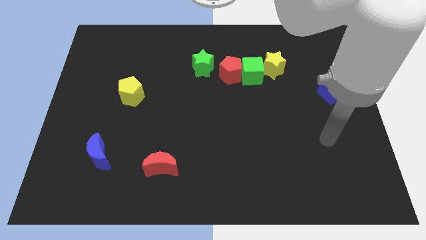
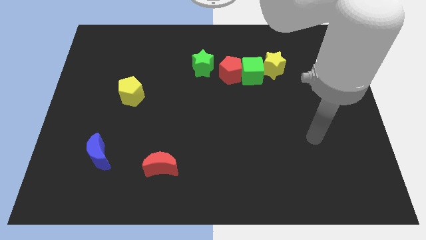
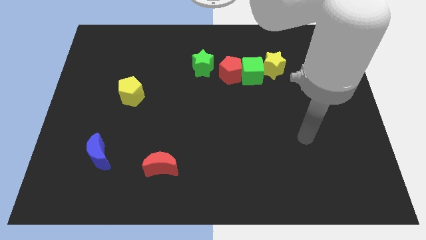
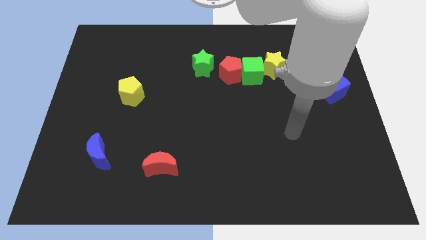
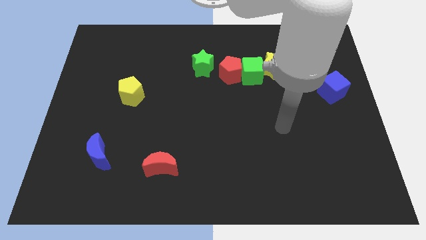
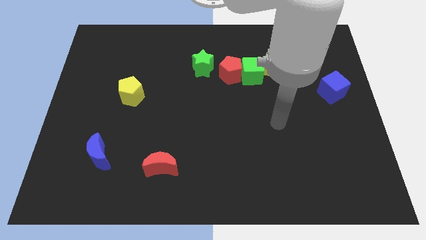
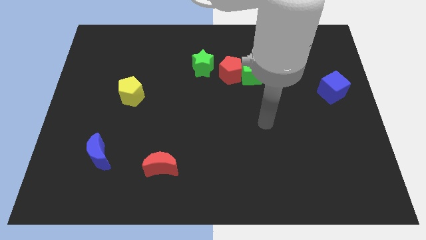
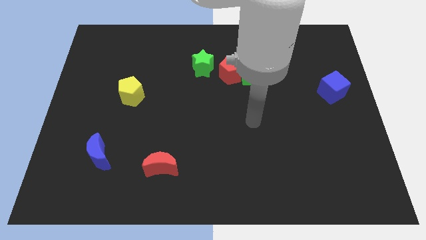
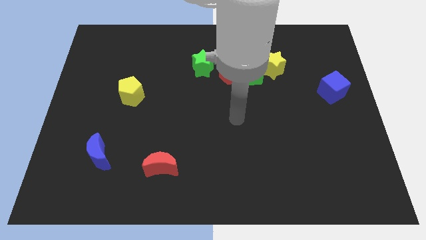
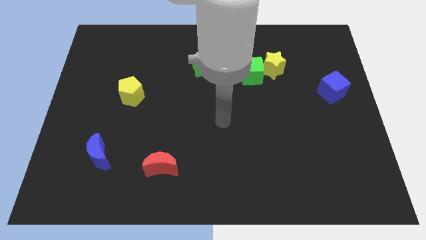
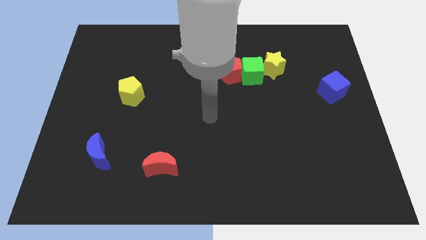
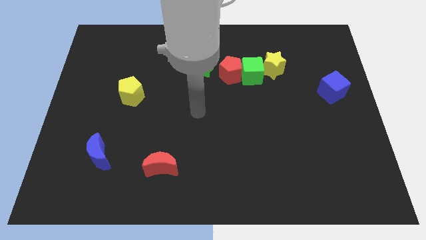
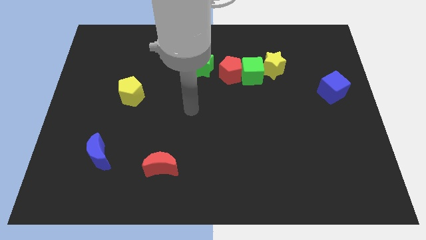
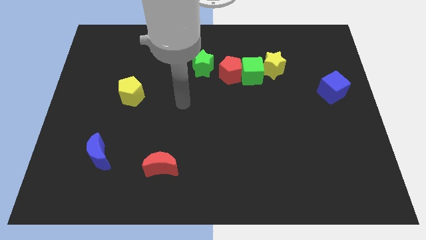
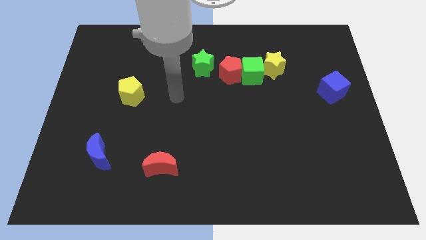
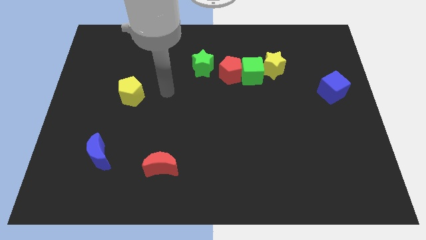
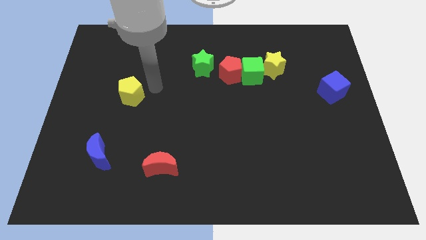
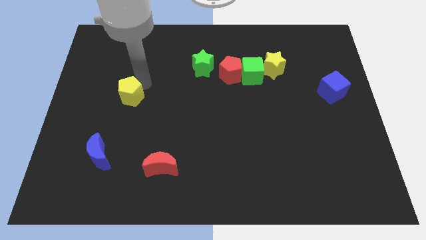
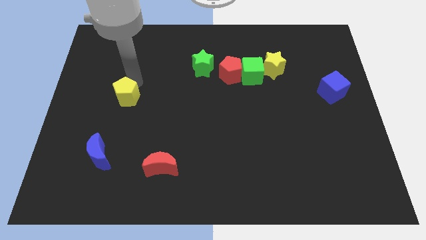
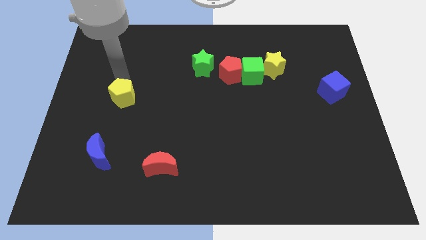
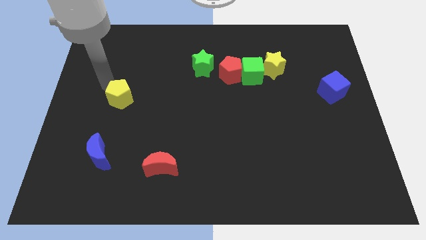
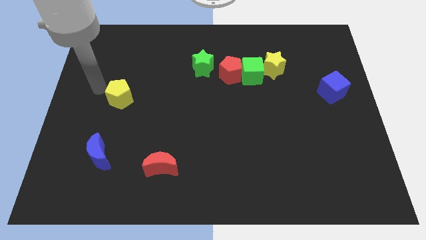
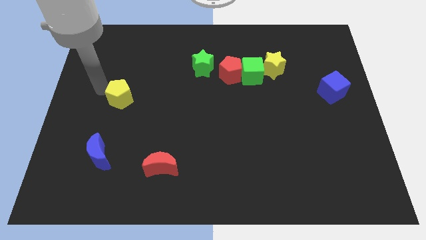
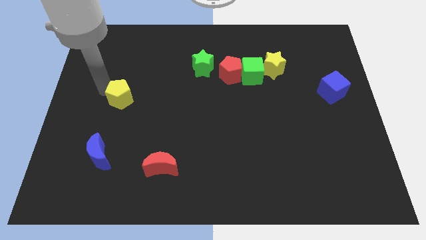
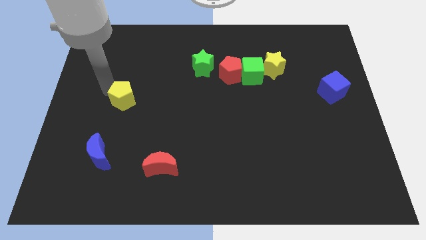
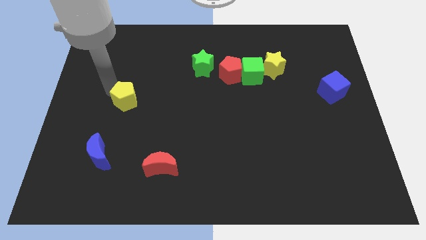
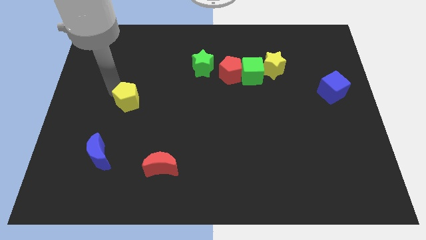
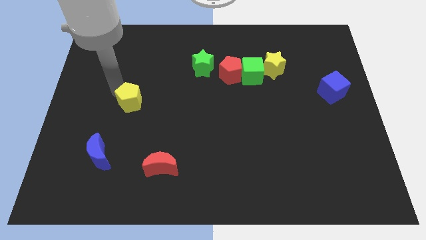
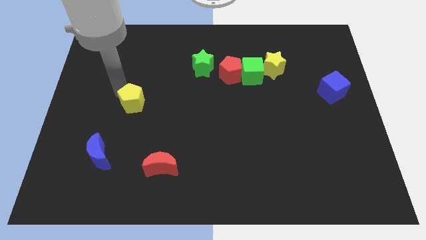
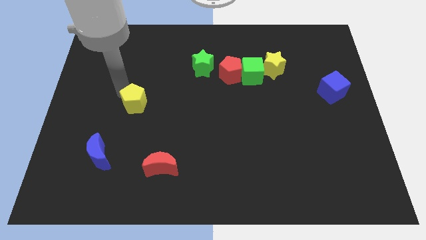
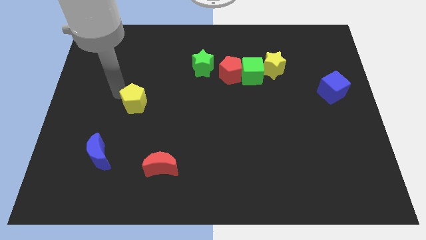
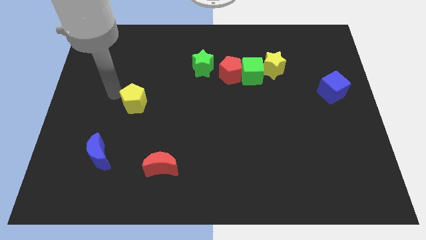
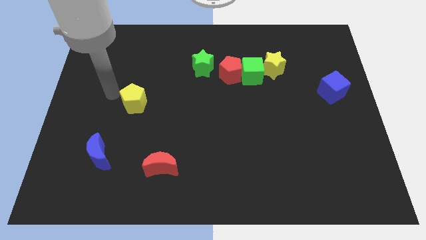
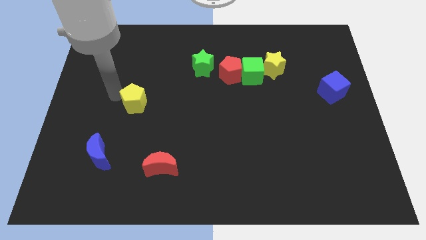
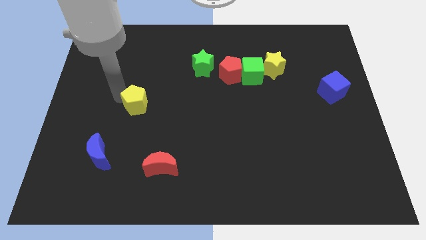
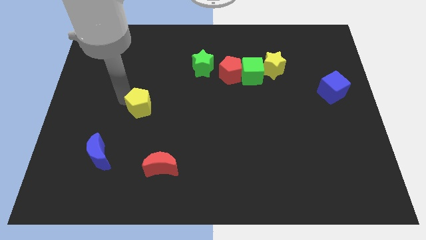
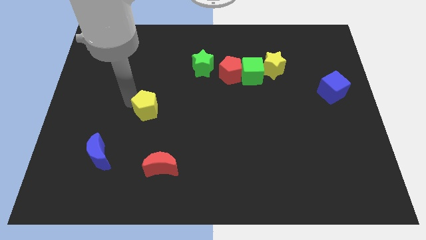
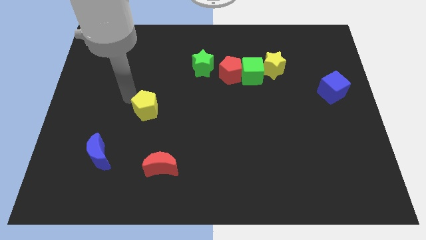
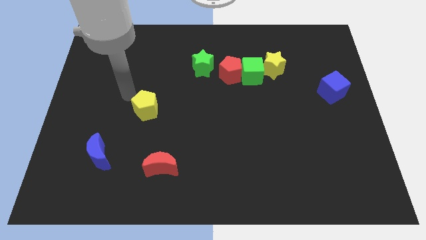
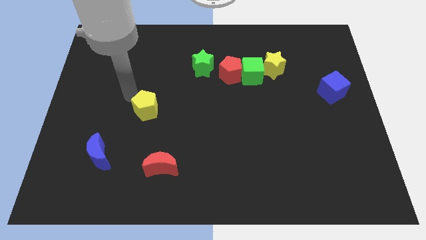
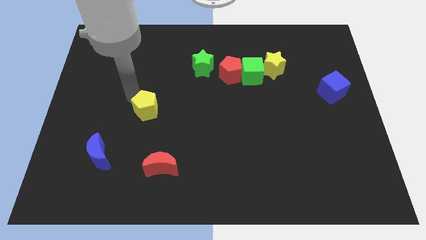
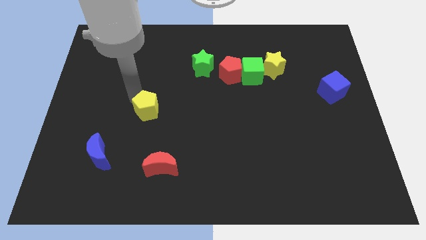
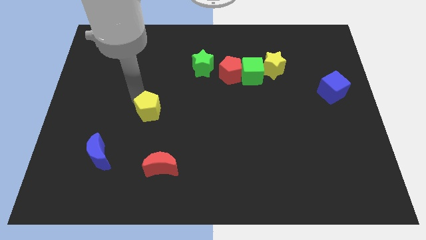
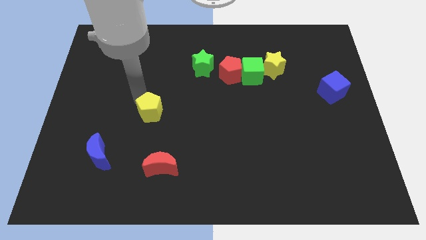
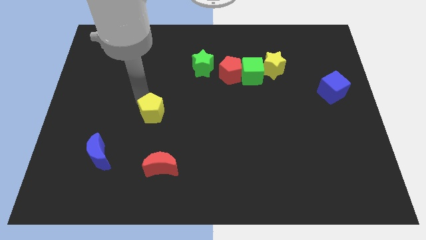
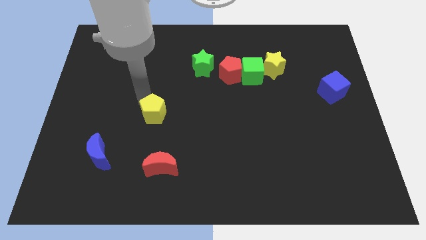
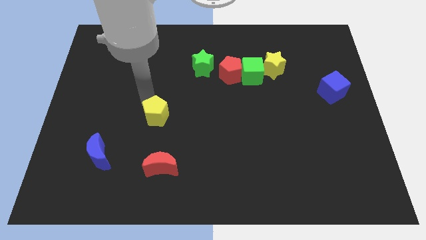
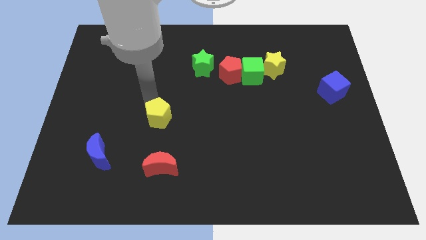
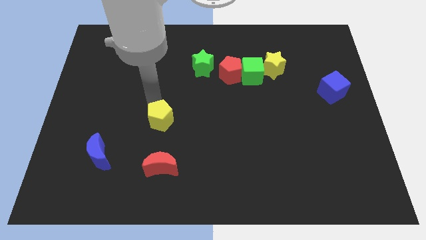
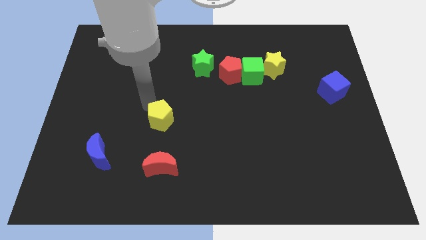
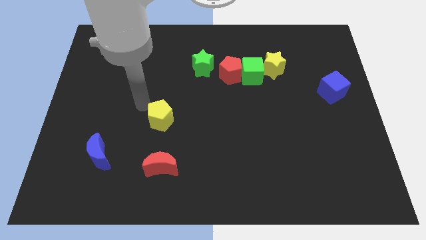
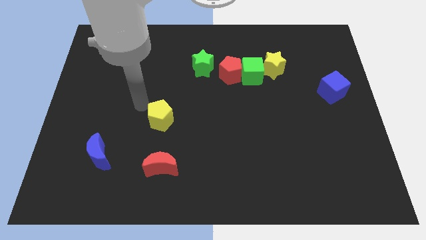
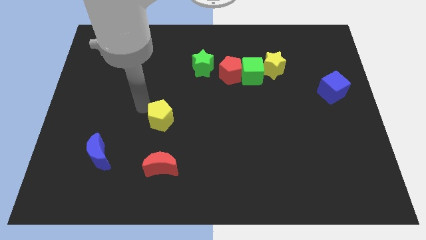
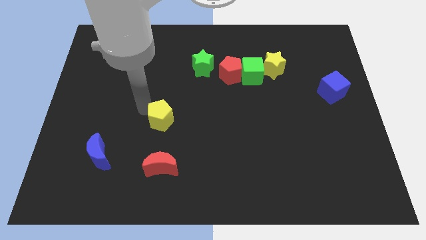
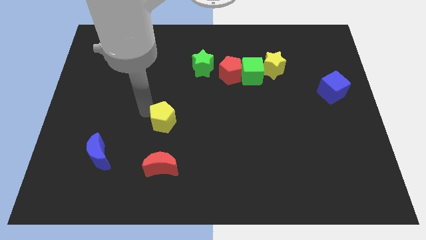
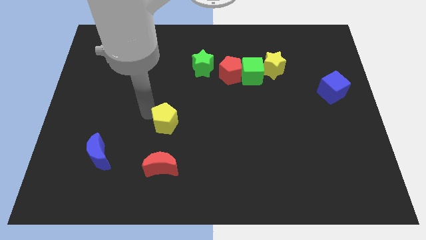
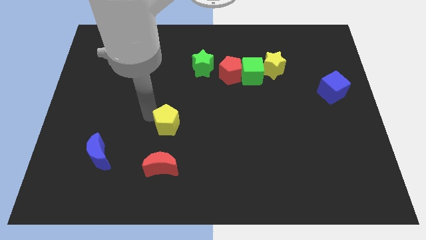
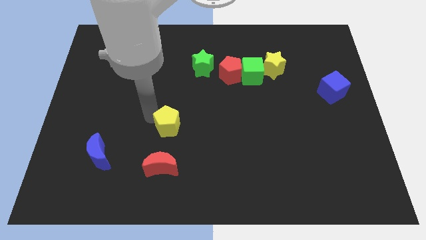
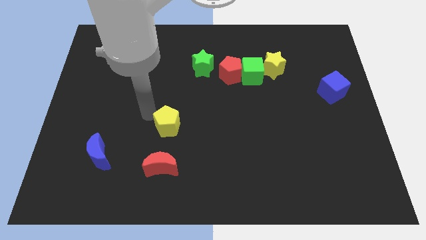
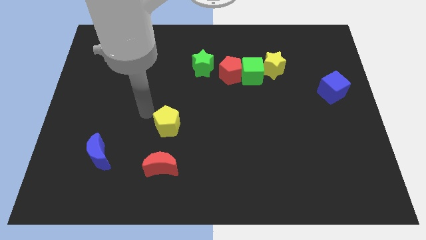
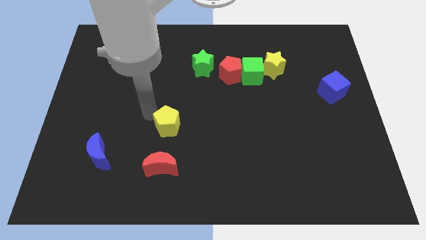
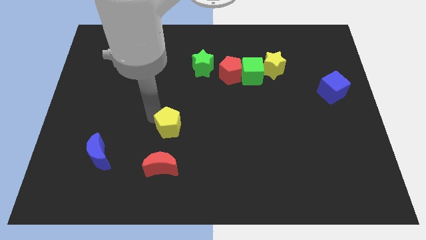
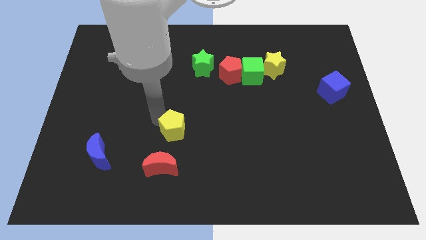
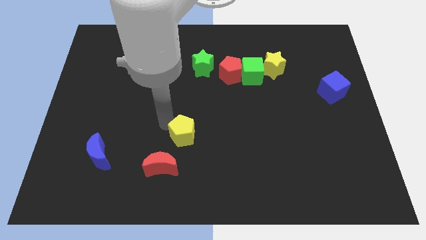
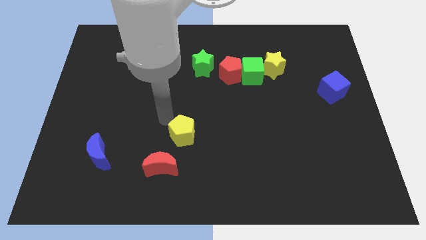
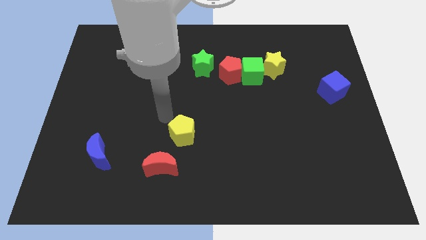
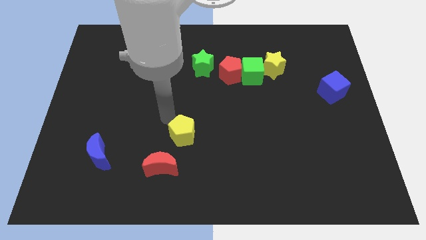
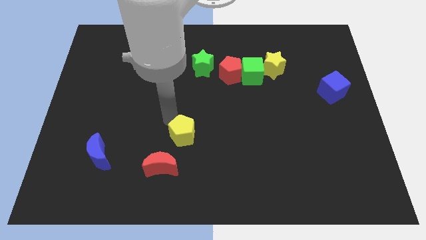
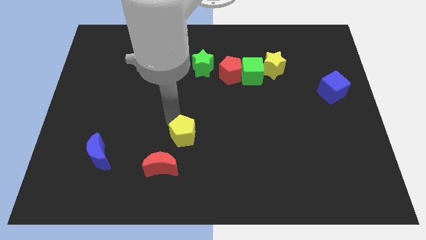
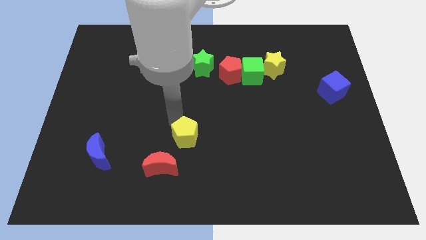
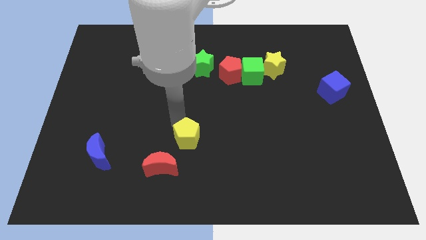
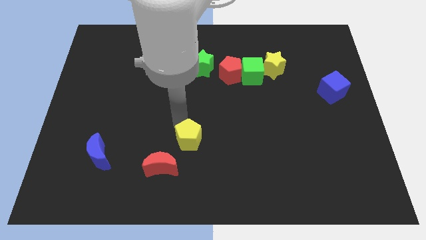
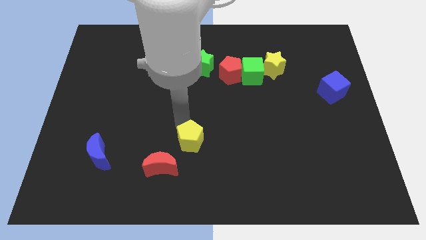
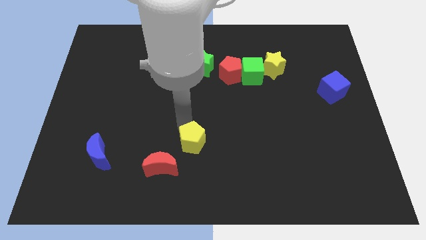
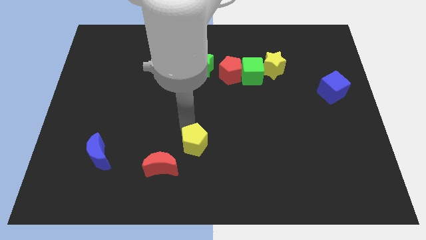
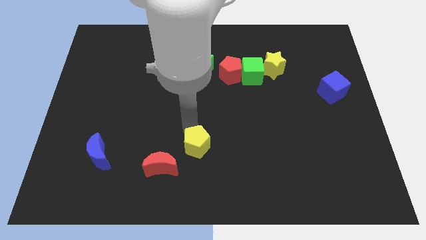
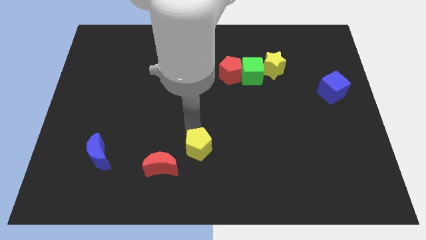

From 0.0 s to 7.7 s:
put the yellow pentagon right of the red moon
